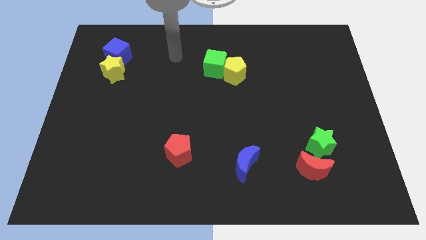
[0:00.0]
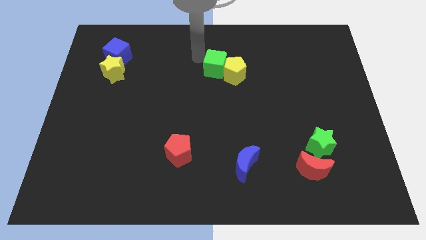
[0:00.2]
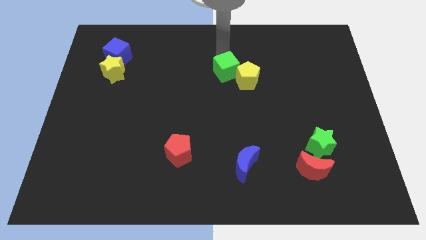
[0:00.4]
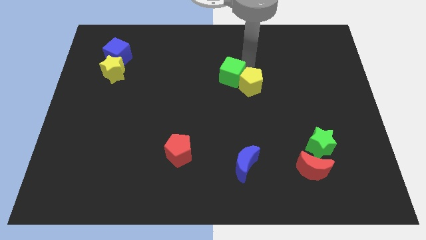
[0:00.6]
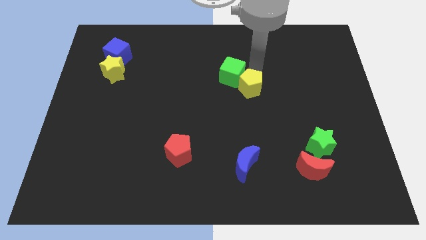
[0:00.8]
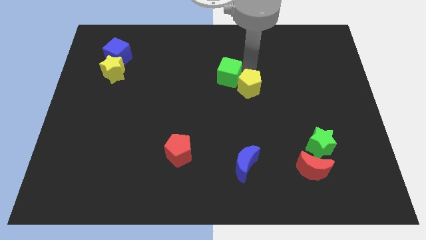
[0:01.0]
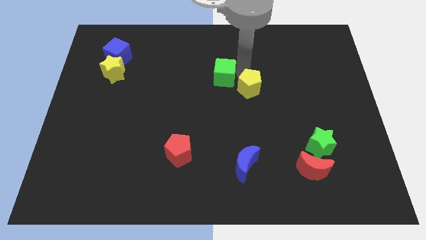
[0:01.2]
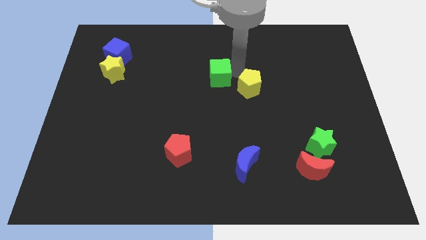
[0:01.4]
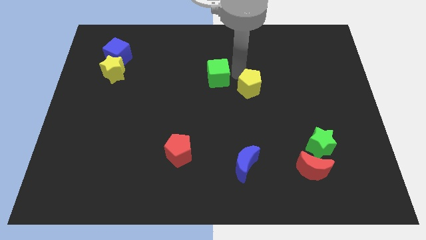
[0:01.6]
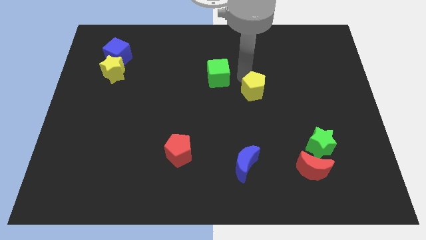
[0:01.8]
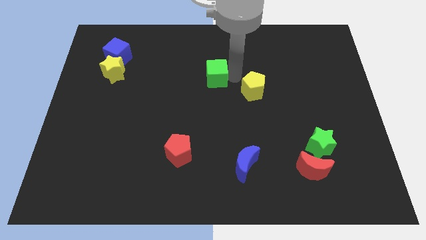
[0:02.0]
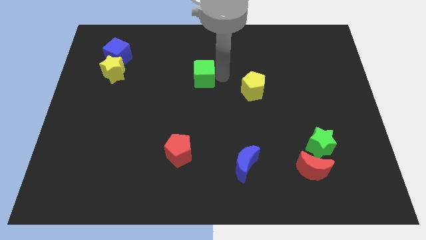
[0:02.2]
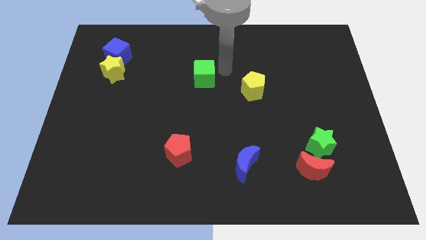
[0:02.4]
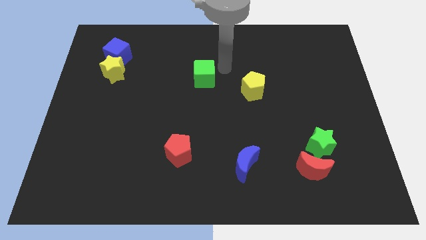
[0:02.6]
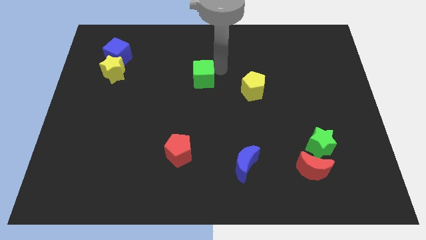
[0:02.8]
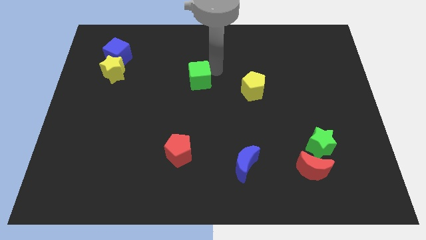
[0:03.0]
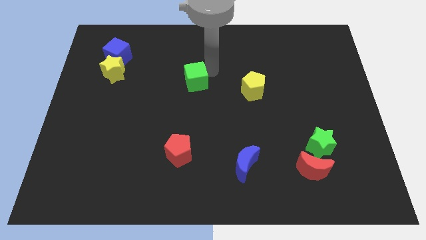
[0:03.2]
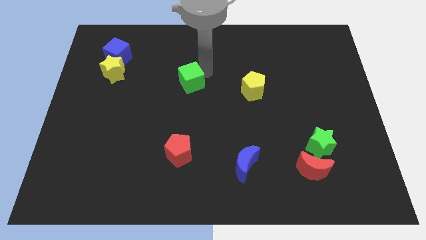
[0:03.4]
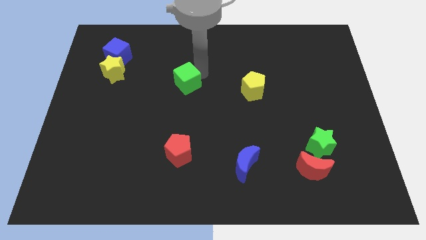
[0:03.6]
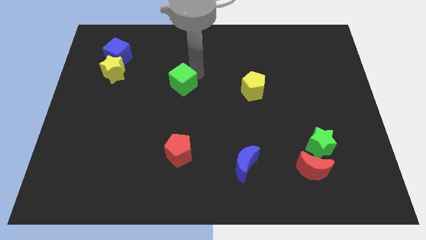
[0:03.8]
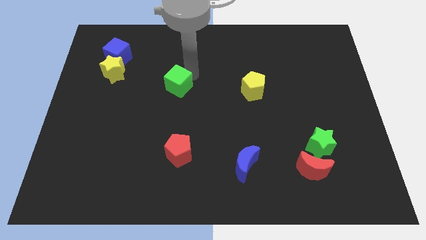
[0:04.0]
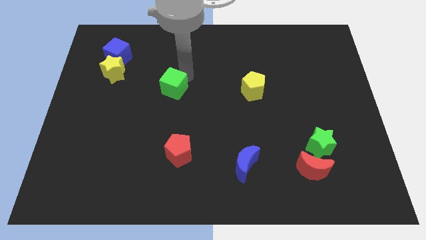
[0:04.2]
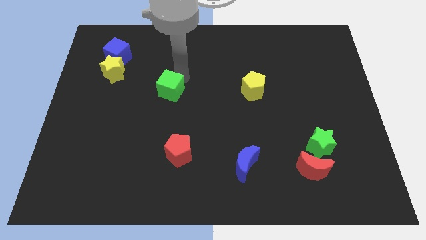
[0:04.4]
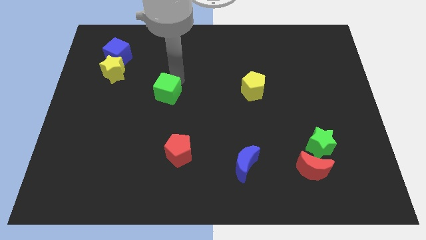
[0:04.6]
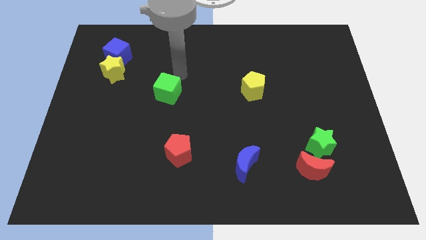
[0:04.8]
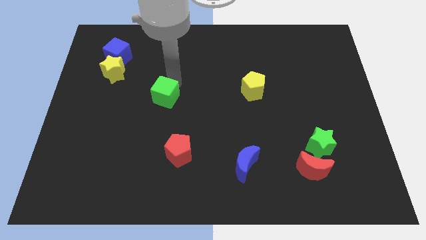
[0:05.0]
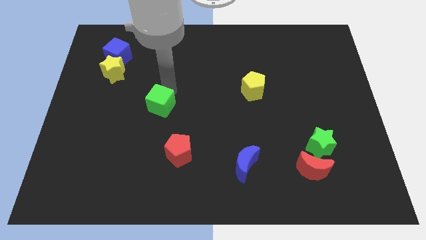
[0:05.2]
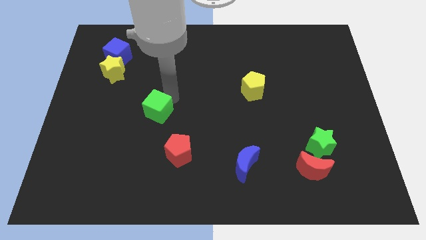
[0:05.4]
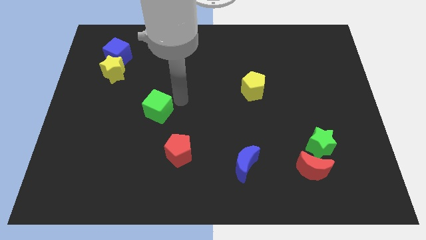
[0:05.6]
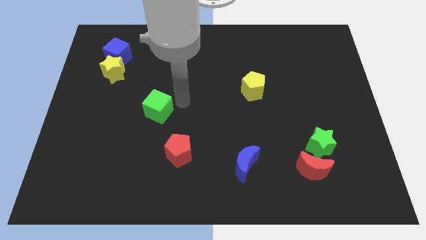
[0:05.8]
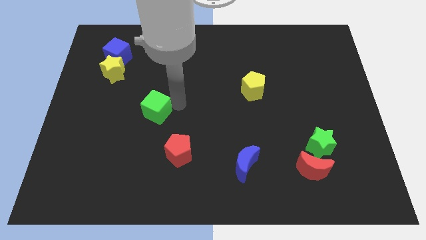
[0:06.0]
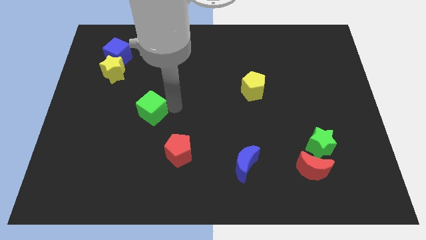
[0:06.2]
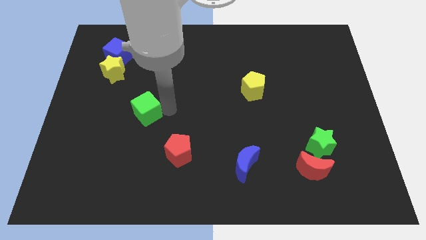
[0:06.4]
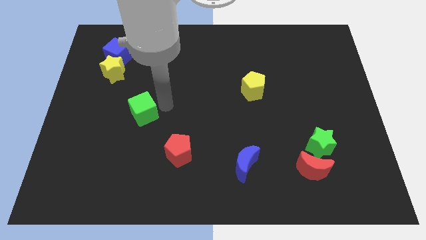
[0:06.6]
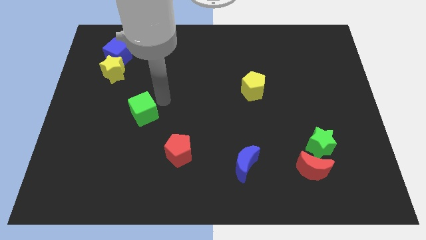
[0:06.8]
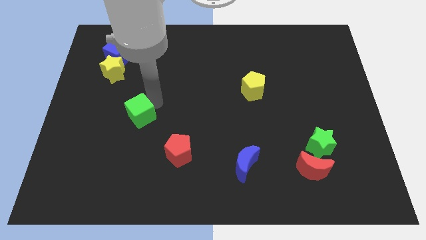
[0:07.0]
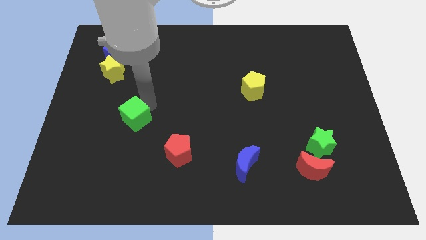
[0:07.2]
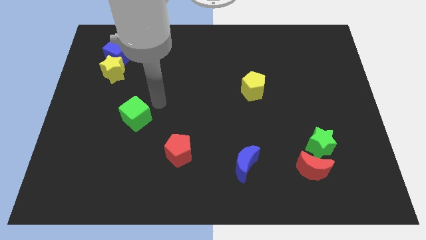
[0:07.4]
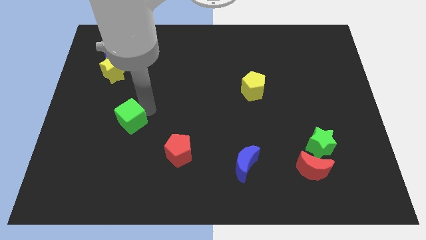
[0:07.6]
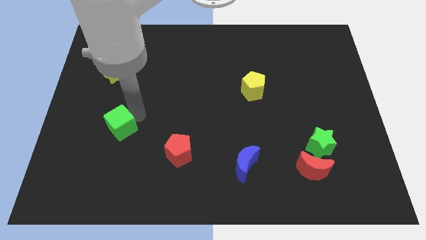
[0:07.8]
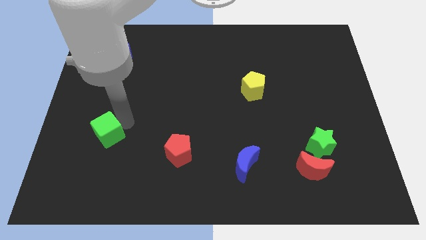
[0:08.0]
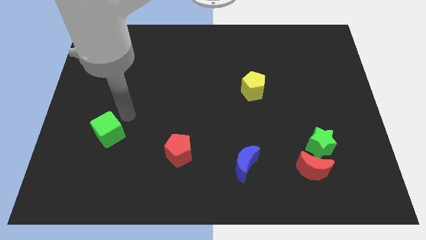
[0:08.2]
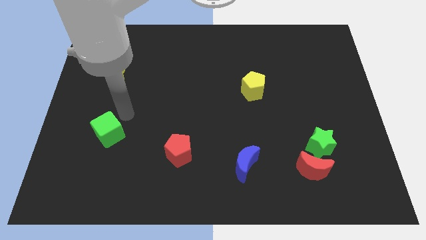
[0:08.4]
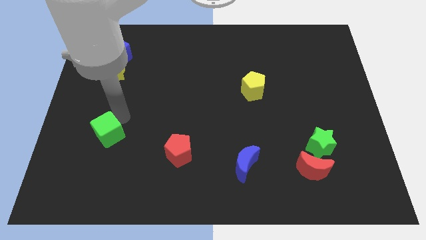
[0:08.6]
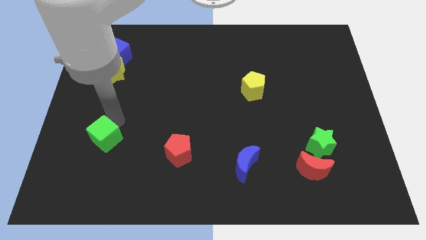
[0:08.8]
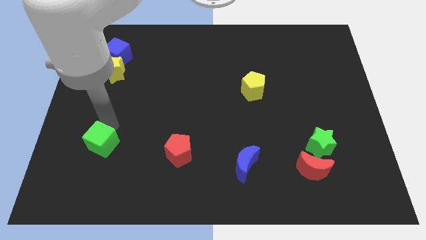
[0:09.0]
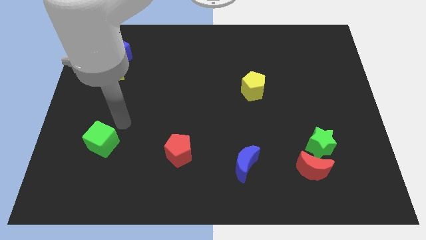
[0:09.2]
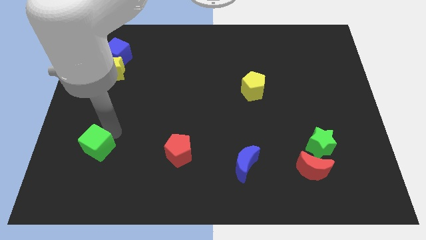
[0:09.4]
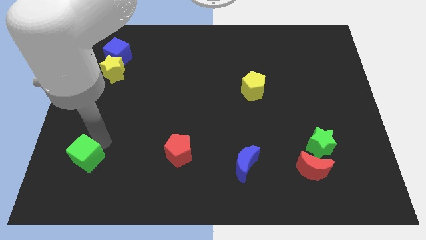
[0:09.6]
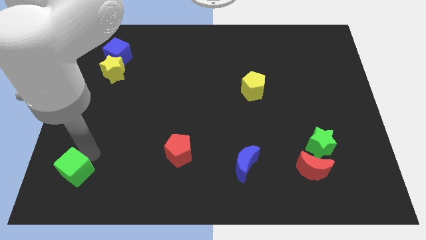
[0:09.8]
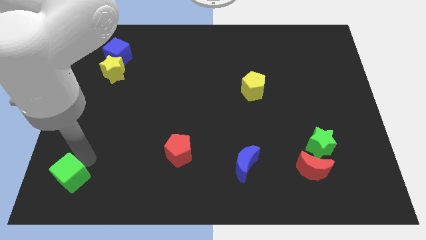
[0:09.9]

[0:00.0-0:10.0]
push the green cube to the bottom left

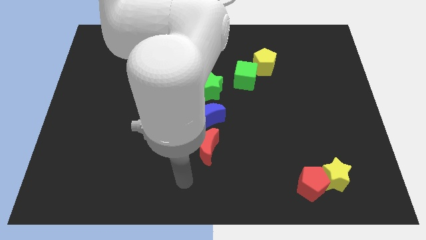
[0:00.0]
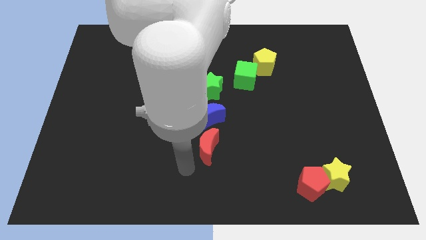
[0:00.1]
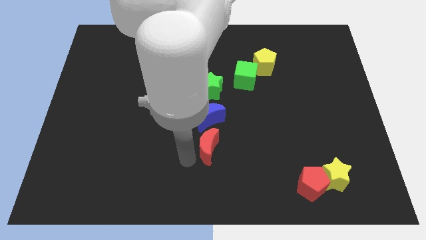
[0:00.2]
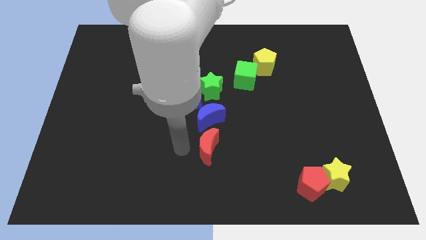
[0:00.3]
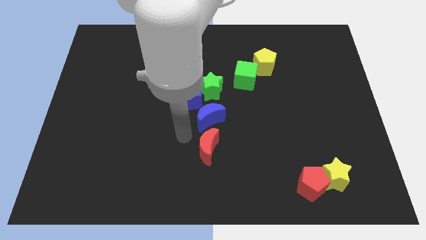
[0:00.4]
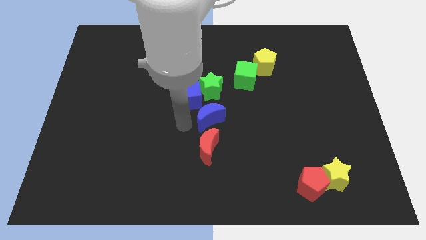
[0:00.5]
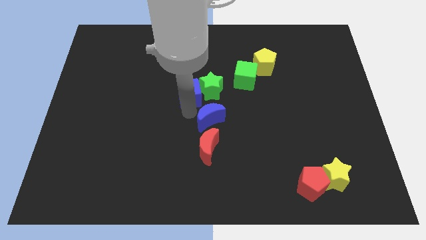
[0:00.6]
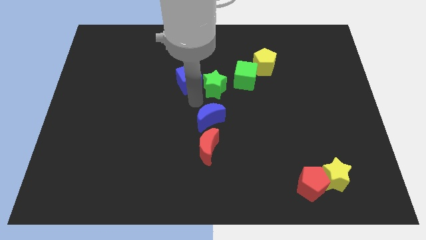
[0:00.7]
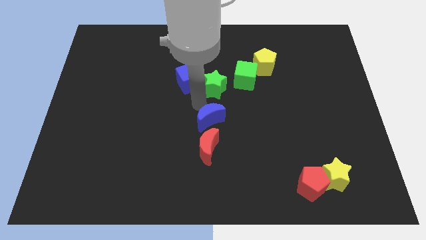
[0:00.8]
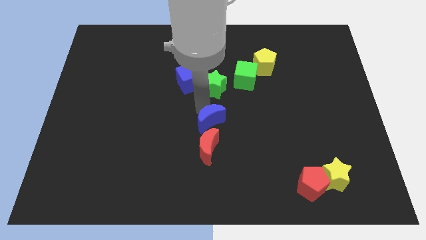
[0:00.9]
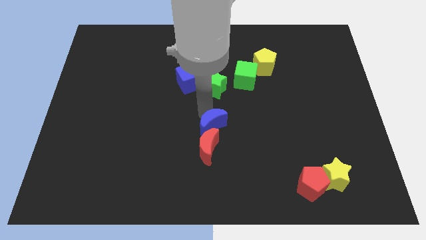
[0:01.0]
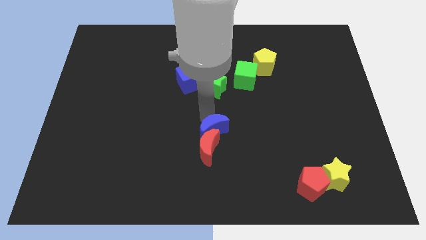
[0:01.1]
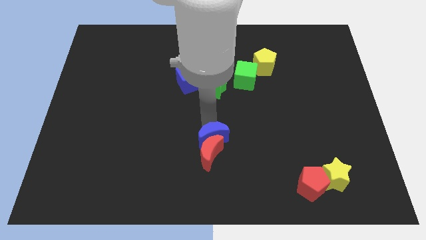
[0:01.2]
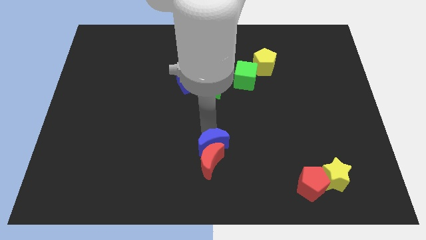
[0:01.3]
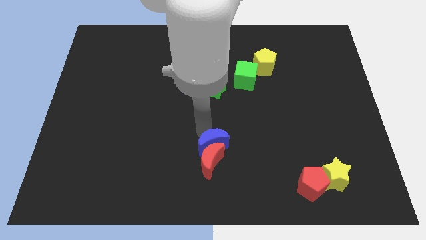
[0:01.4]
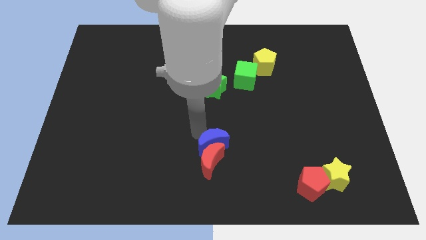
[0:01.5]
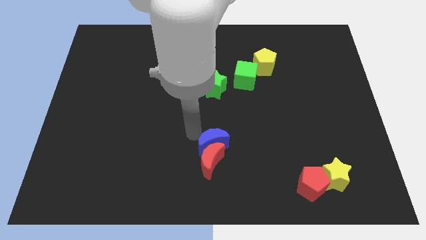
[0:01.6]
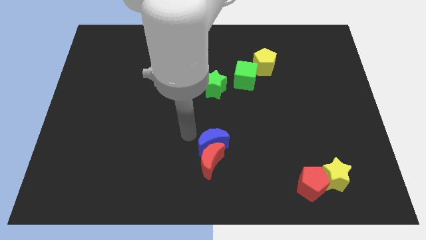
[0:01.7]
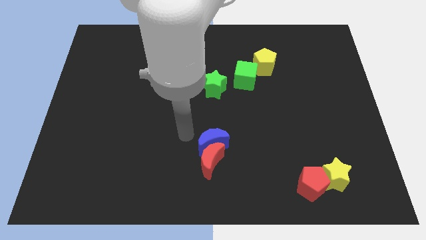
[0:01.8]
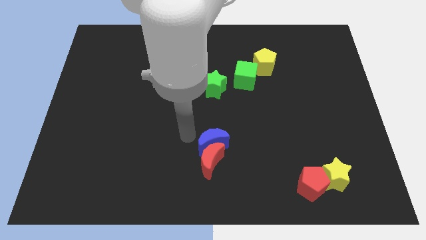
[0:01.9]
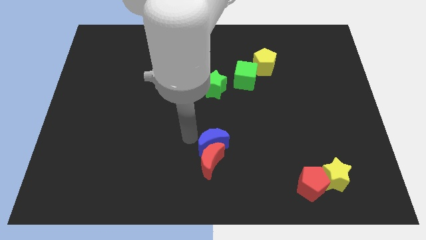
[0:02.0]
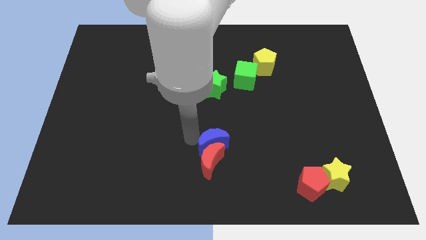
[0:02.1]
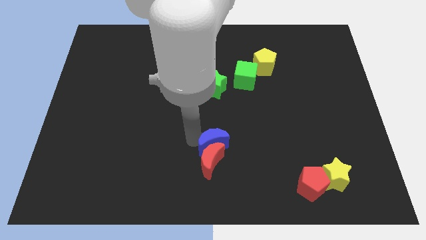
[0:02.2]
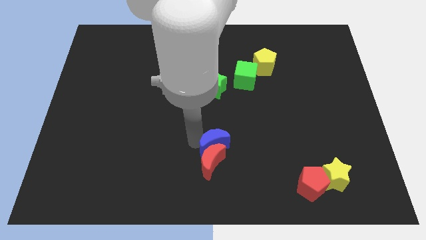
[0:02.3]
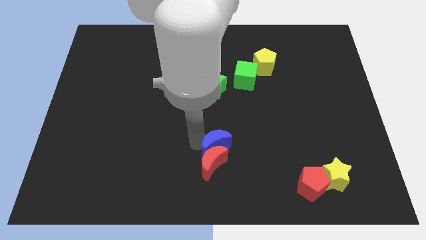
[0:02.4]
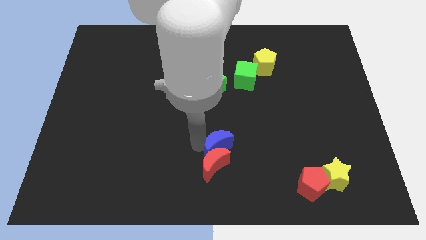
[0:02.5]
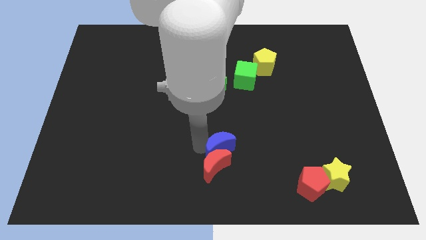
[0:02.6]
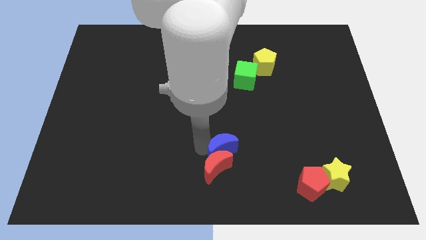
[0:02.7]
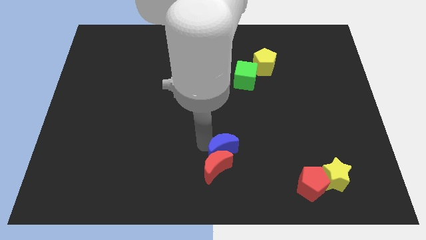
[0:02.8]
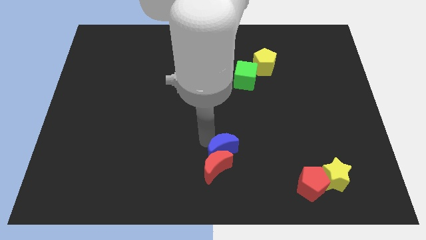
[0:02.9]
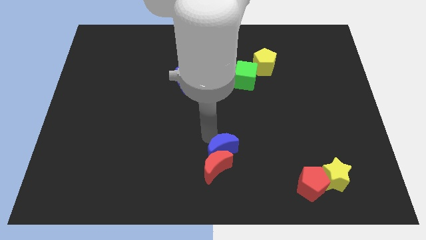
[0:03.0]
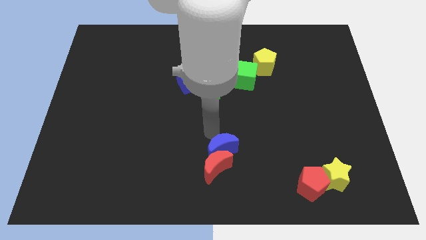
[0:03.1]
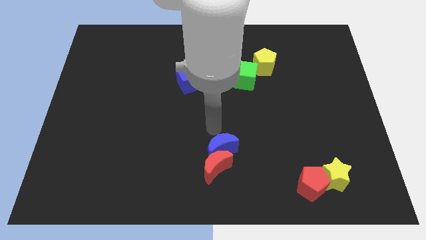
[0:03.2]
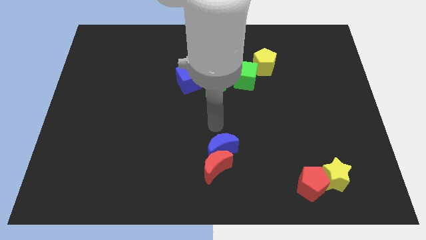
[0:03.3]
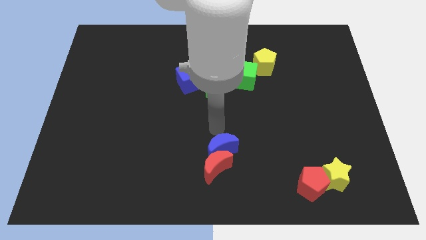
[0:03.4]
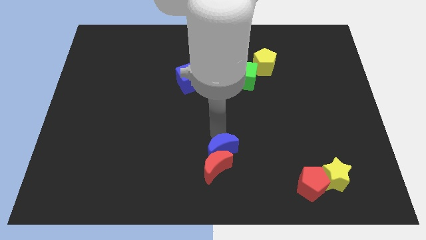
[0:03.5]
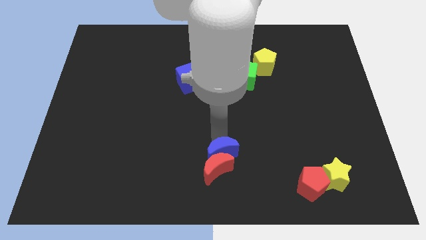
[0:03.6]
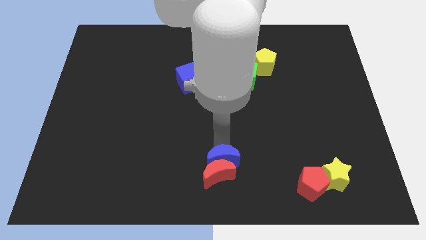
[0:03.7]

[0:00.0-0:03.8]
slide the blue moon to the bottom
